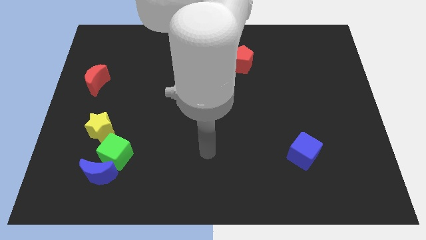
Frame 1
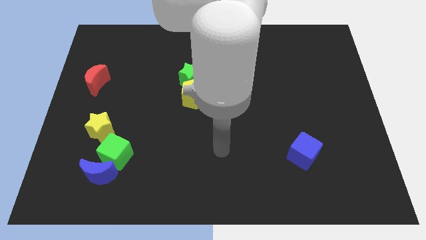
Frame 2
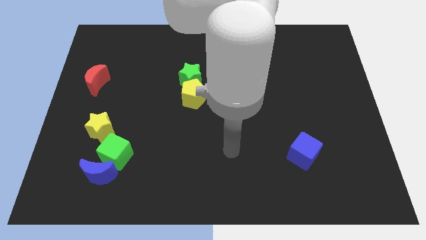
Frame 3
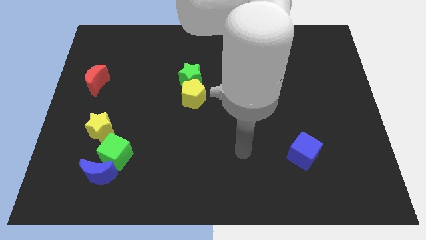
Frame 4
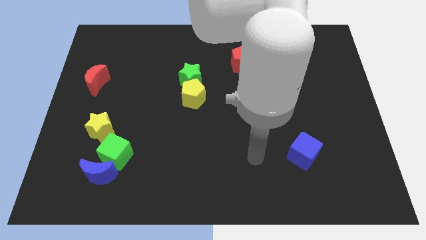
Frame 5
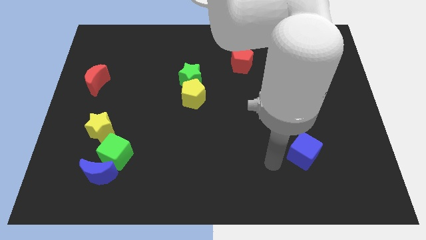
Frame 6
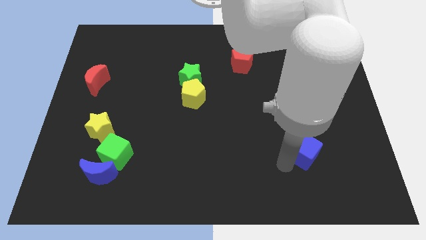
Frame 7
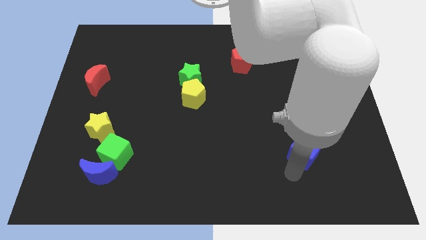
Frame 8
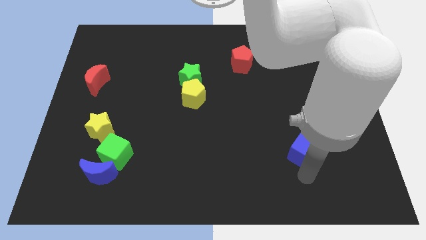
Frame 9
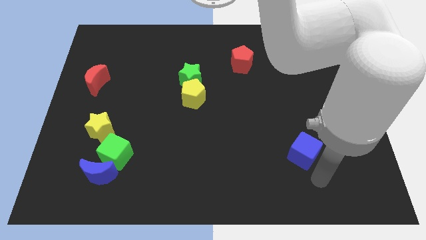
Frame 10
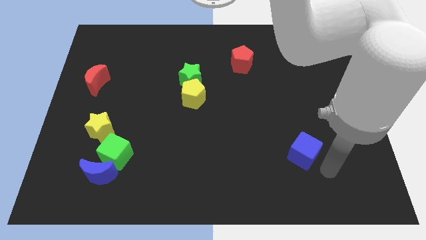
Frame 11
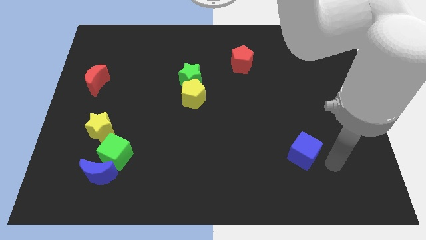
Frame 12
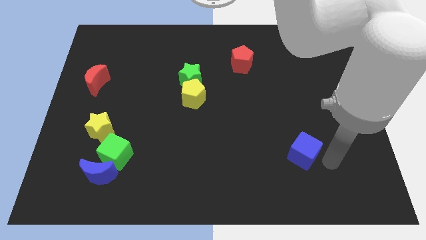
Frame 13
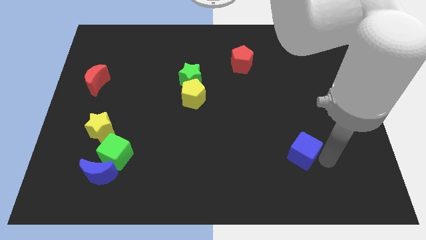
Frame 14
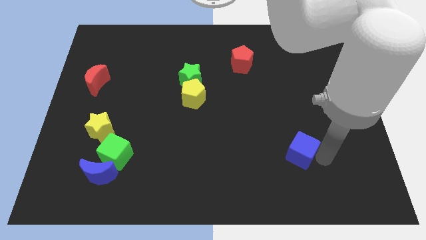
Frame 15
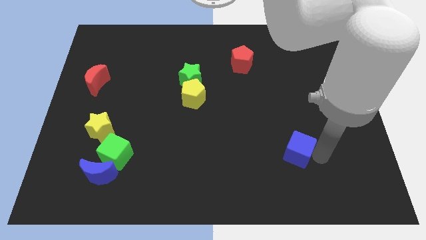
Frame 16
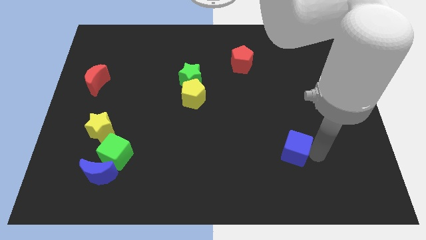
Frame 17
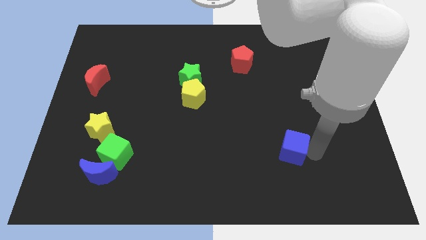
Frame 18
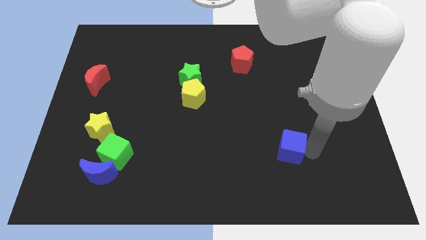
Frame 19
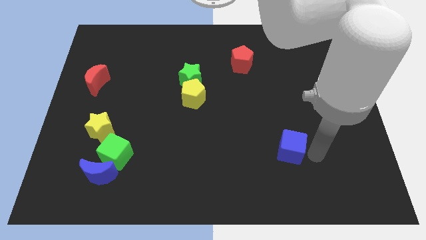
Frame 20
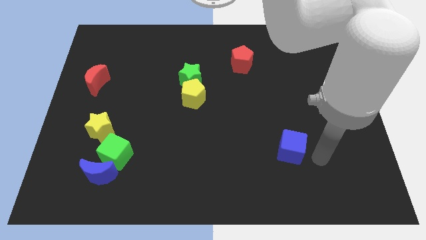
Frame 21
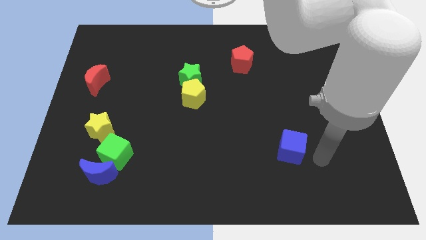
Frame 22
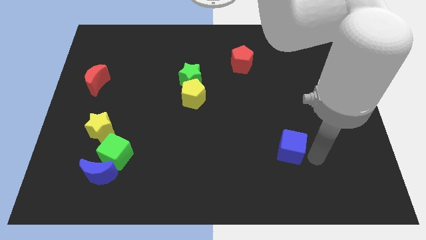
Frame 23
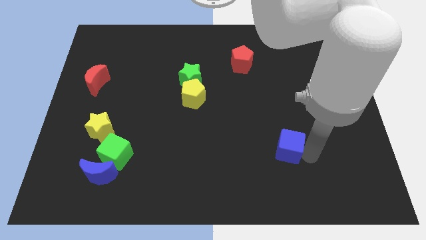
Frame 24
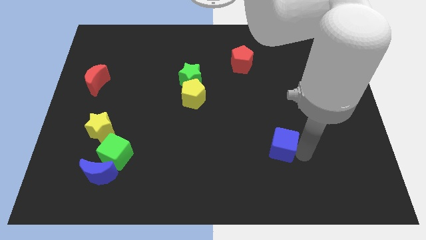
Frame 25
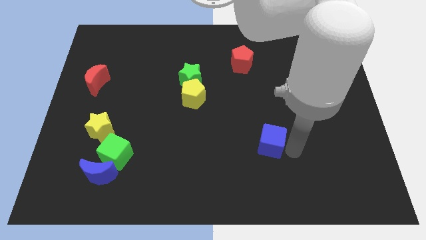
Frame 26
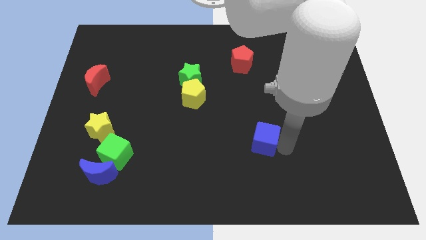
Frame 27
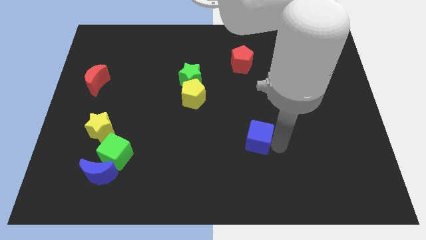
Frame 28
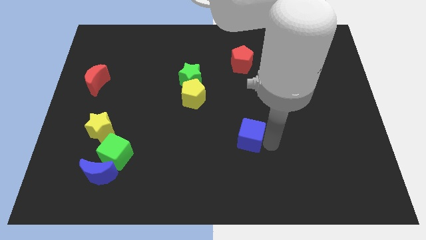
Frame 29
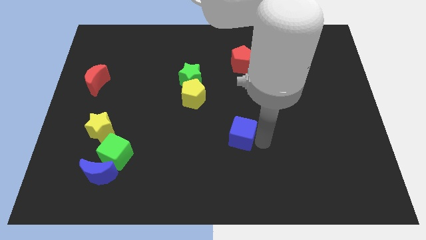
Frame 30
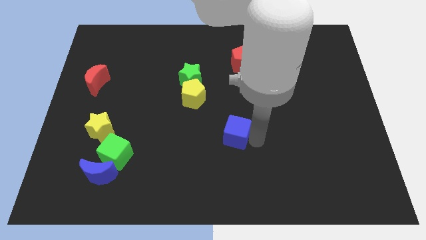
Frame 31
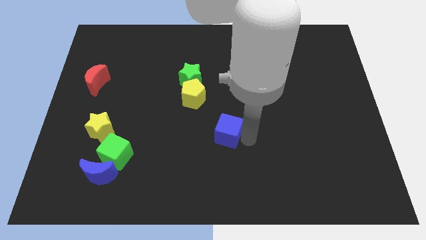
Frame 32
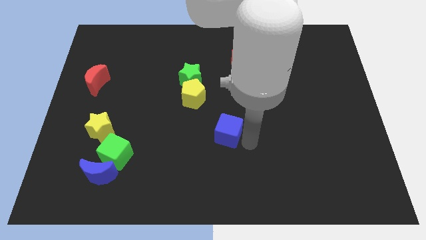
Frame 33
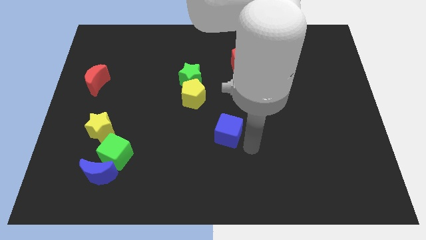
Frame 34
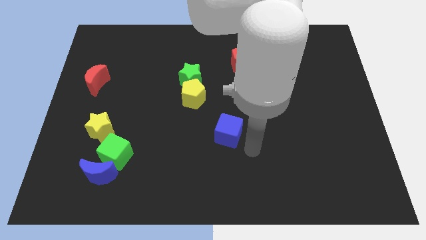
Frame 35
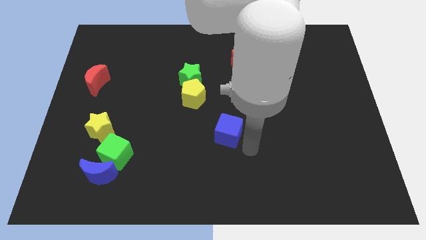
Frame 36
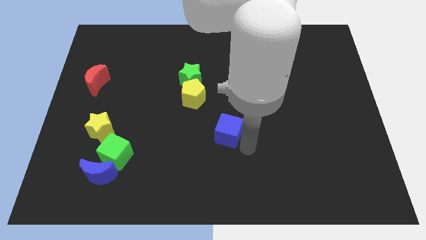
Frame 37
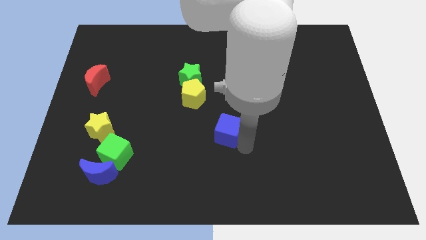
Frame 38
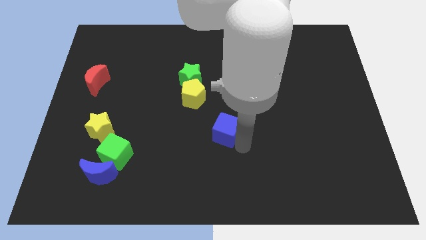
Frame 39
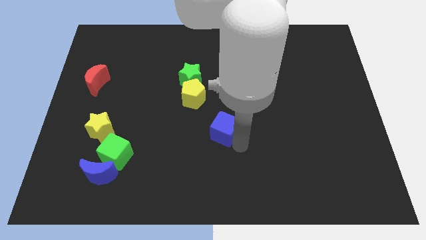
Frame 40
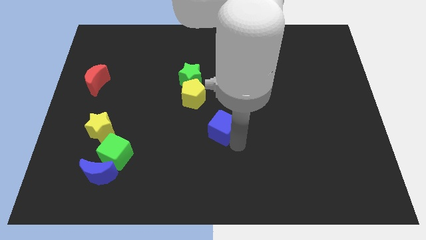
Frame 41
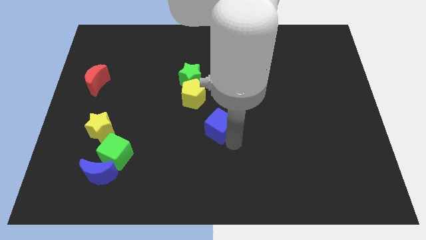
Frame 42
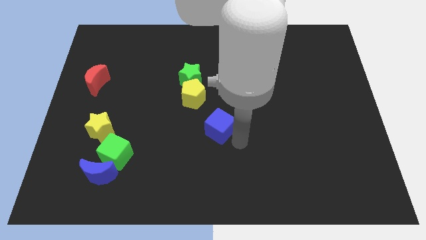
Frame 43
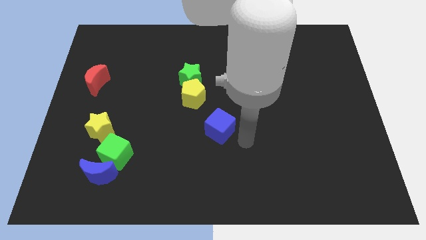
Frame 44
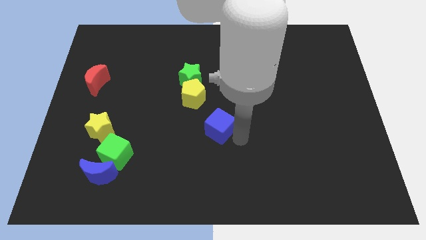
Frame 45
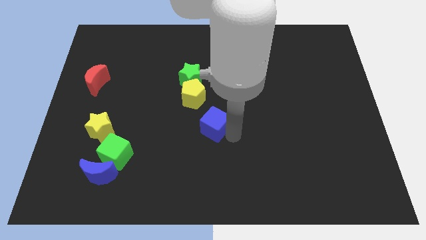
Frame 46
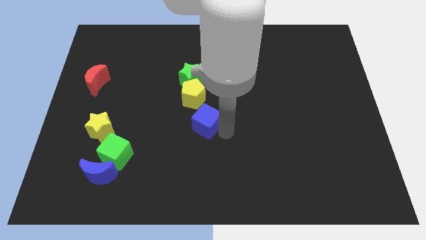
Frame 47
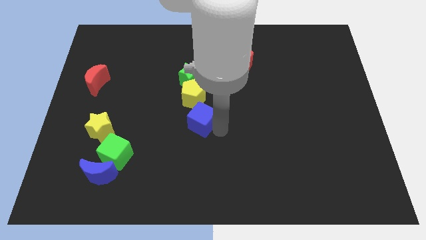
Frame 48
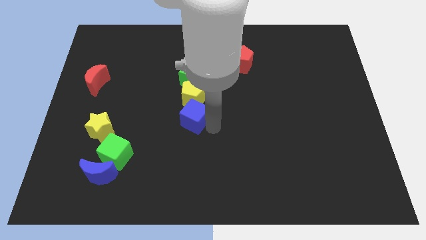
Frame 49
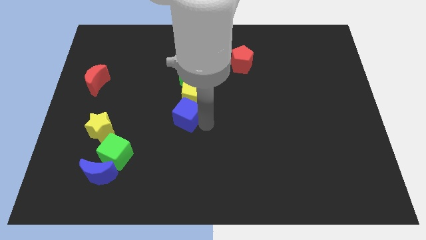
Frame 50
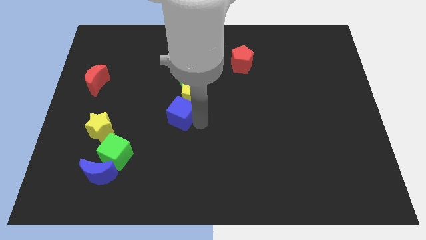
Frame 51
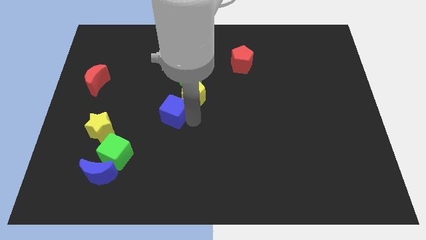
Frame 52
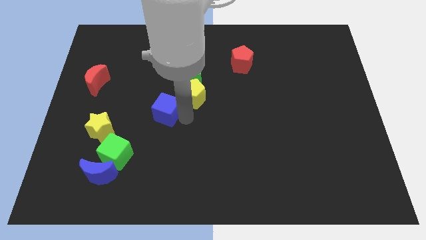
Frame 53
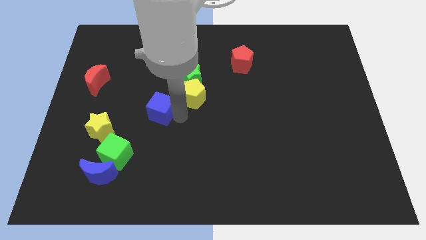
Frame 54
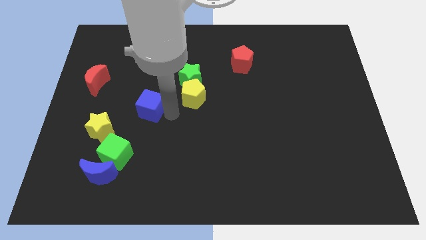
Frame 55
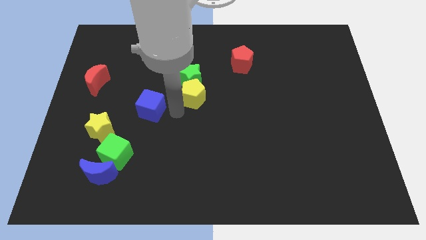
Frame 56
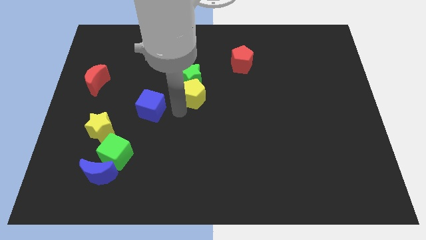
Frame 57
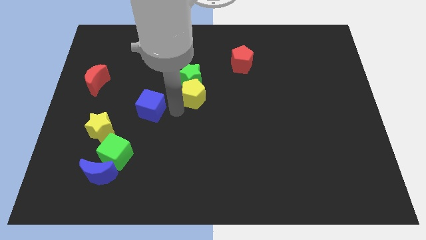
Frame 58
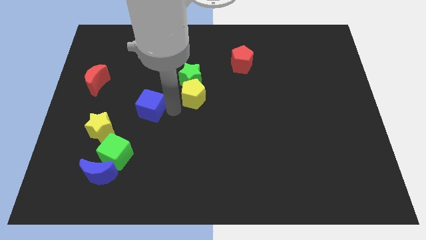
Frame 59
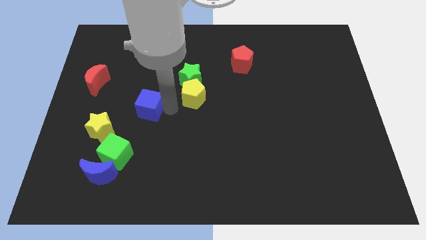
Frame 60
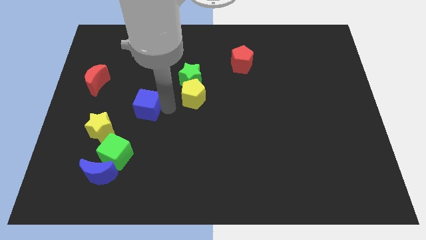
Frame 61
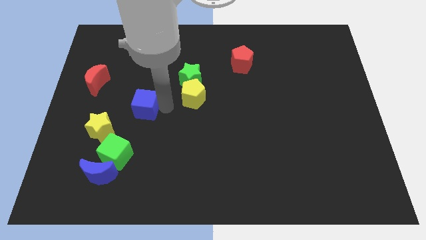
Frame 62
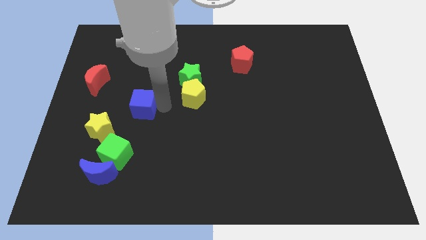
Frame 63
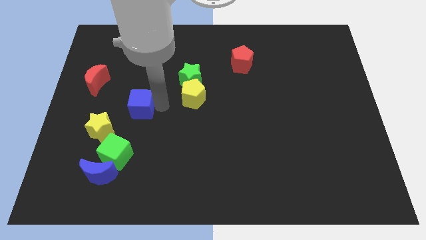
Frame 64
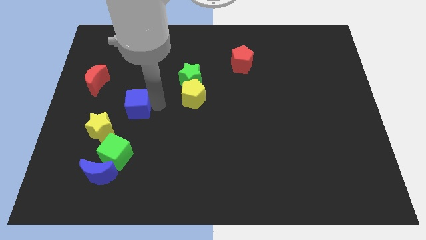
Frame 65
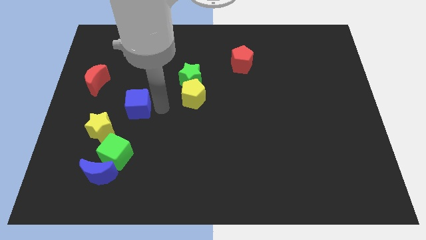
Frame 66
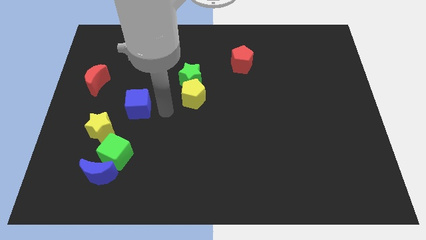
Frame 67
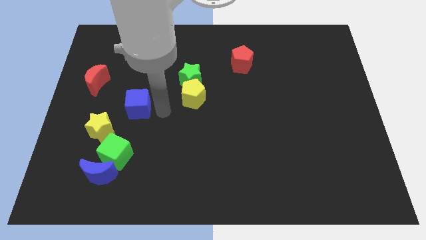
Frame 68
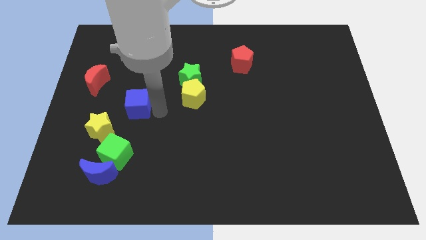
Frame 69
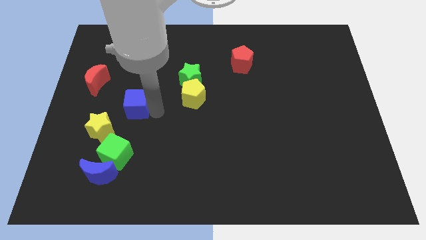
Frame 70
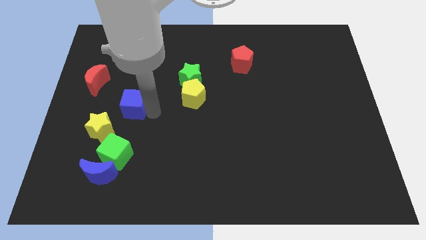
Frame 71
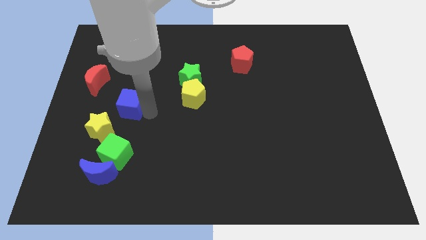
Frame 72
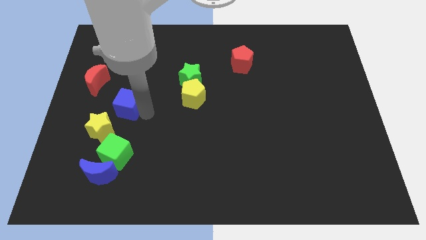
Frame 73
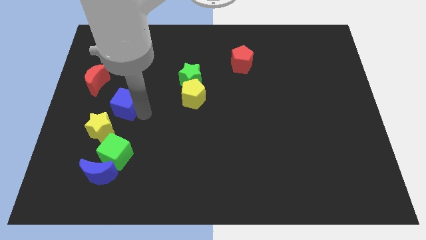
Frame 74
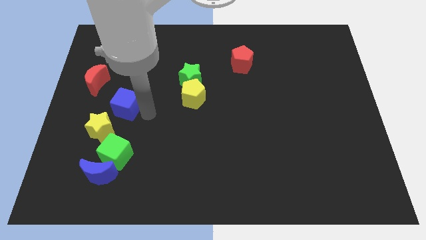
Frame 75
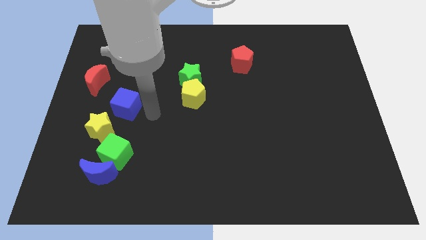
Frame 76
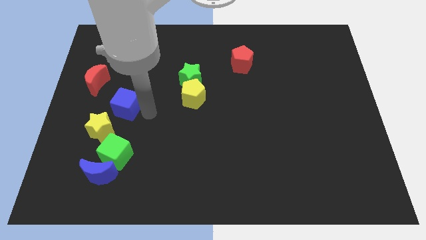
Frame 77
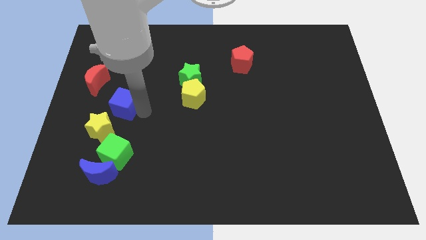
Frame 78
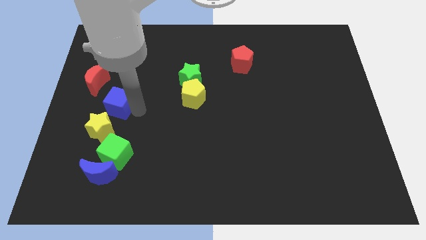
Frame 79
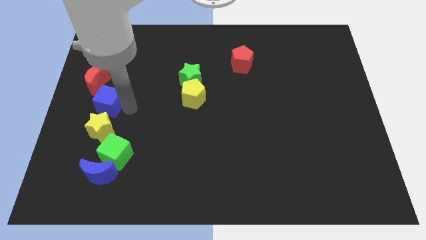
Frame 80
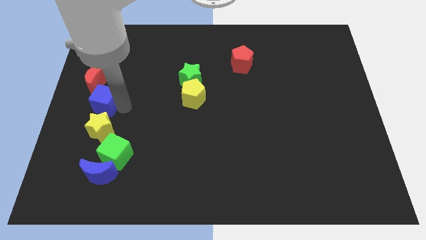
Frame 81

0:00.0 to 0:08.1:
slide the blue cube to the left side
